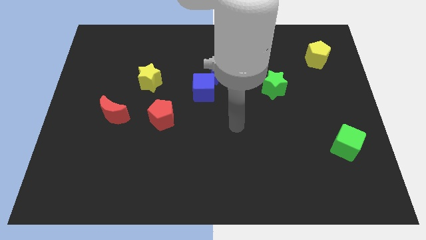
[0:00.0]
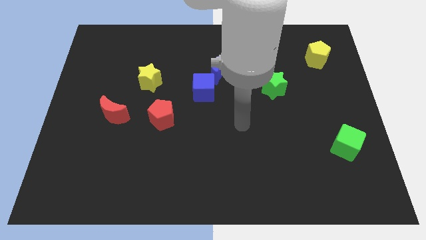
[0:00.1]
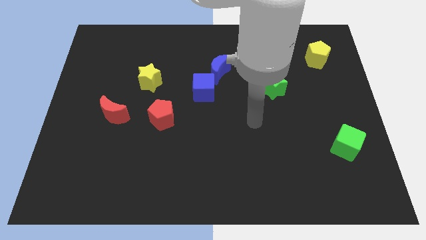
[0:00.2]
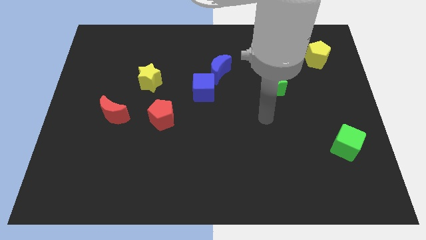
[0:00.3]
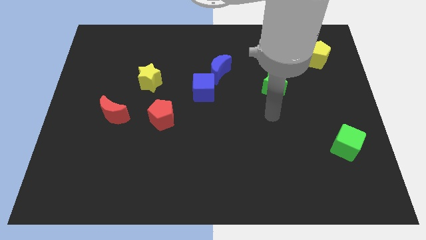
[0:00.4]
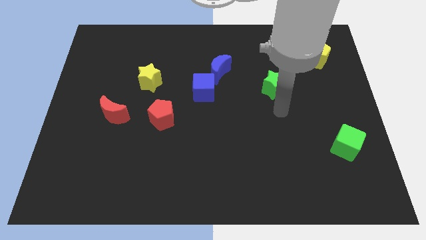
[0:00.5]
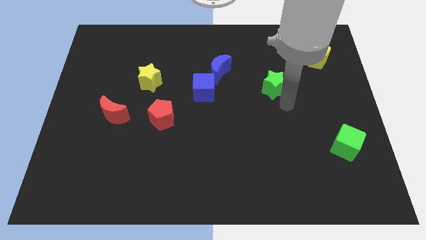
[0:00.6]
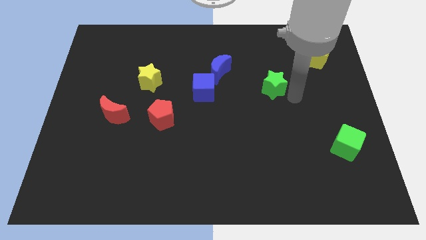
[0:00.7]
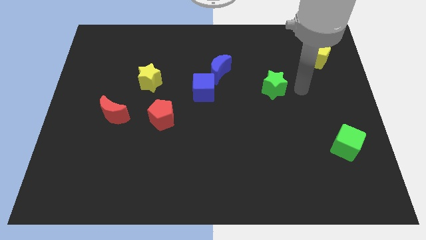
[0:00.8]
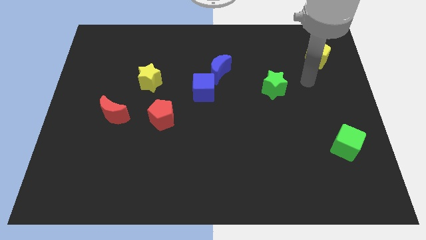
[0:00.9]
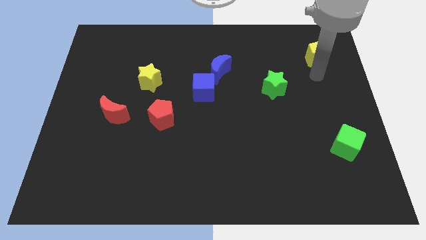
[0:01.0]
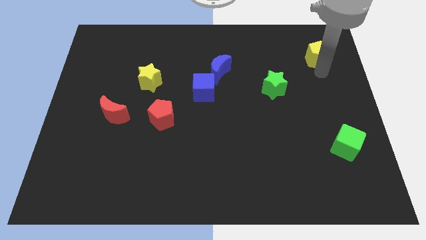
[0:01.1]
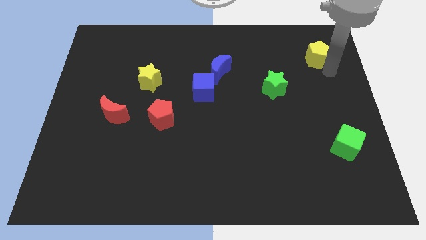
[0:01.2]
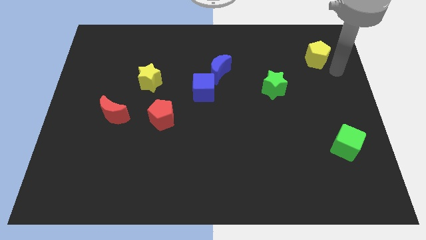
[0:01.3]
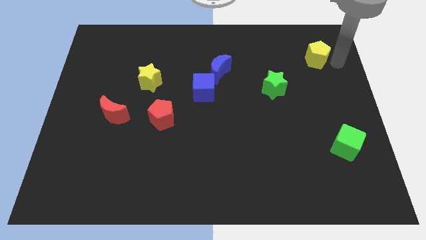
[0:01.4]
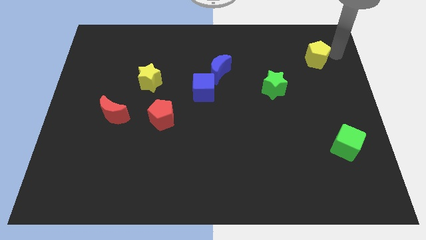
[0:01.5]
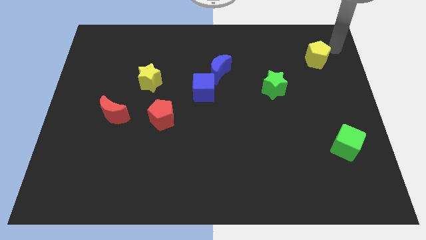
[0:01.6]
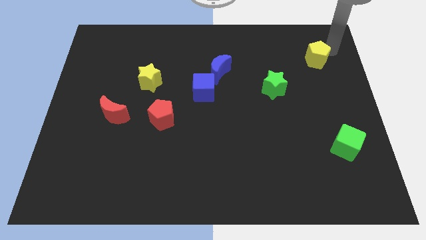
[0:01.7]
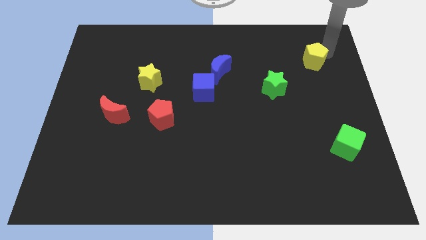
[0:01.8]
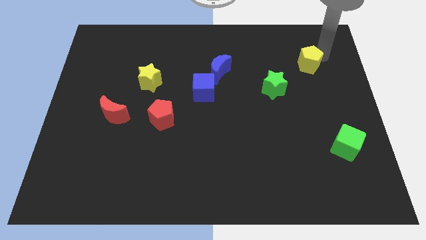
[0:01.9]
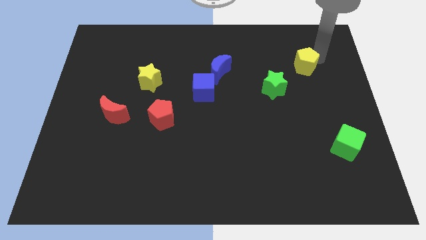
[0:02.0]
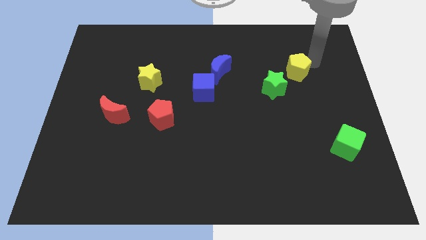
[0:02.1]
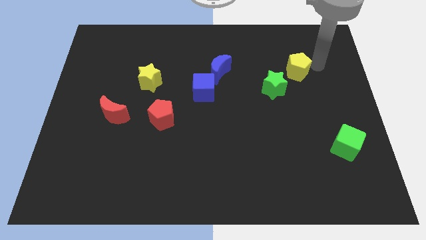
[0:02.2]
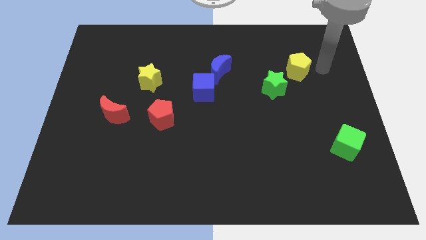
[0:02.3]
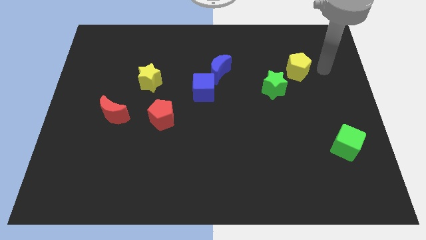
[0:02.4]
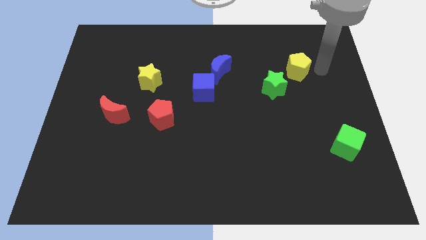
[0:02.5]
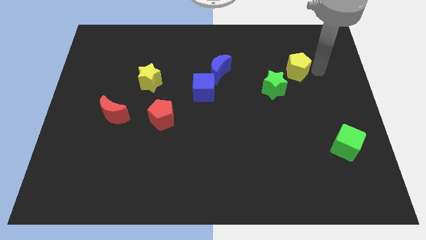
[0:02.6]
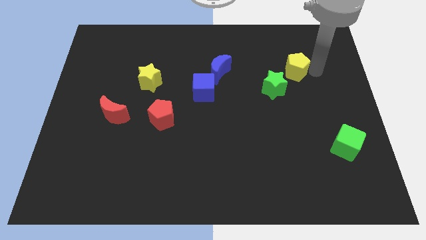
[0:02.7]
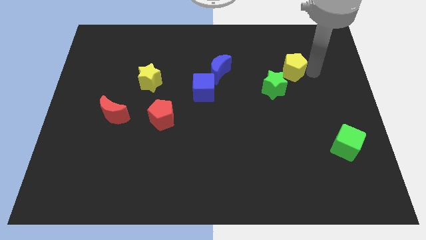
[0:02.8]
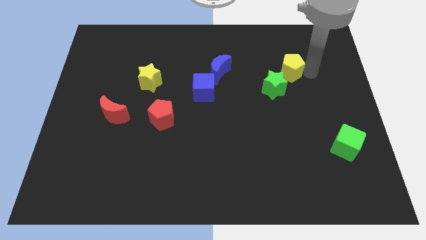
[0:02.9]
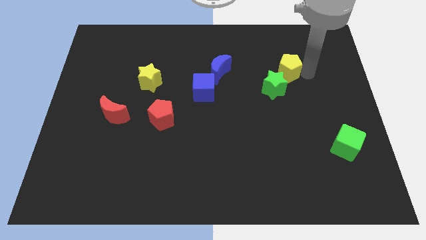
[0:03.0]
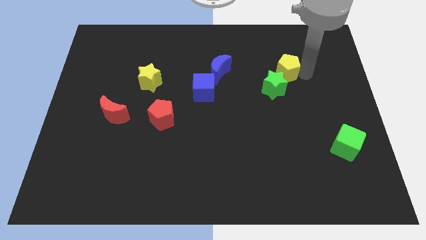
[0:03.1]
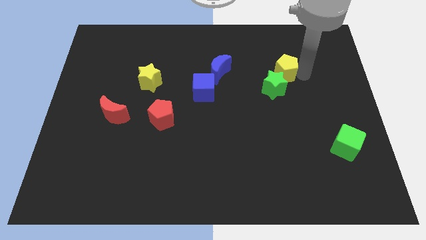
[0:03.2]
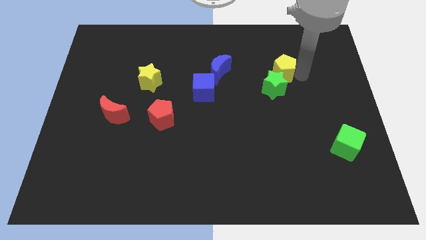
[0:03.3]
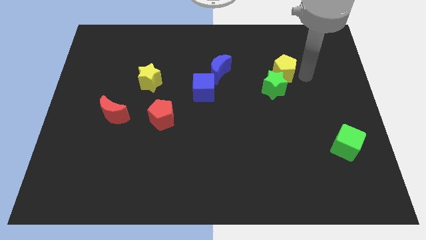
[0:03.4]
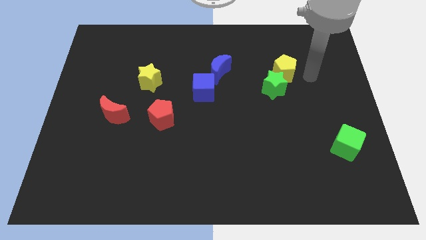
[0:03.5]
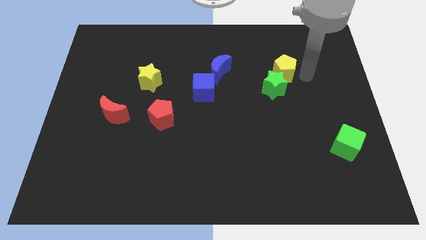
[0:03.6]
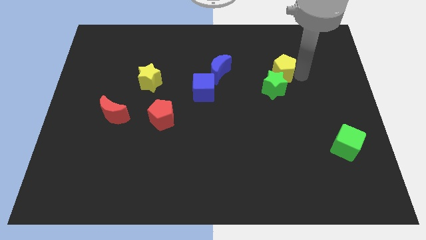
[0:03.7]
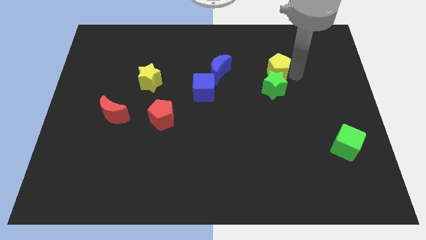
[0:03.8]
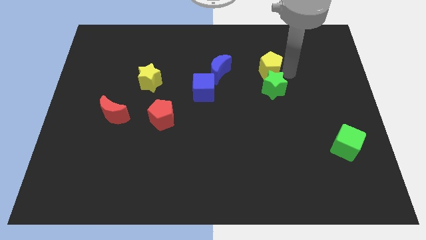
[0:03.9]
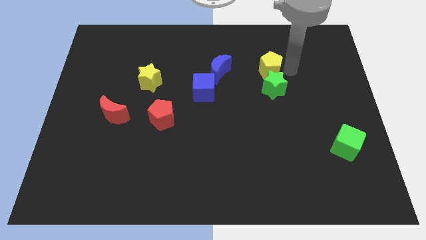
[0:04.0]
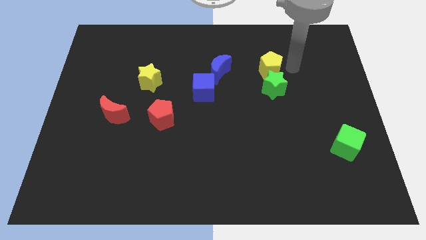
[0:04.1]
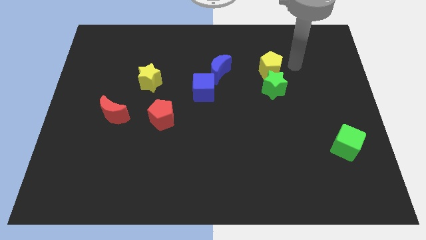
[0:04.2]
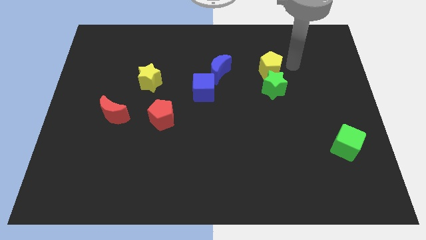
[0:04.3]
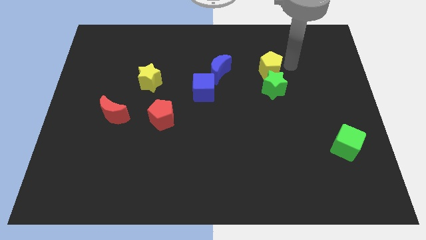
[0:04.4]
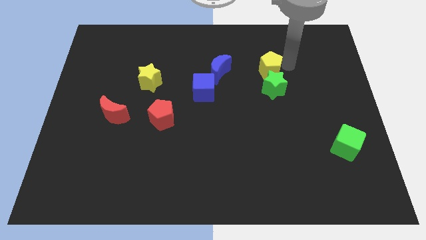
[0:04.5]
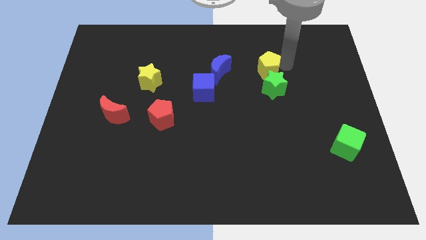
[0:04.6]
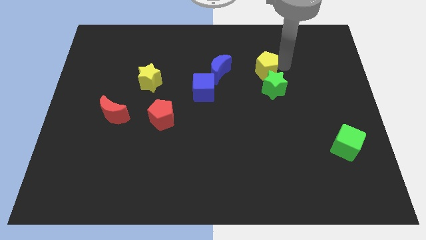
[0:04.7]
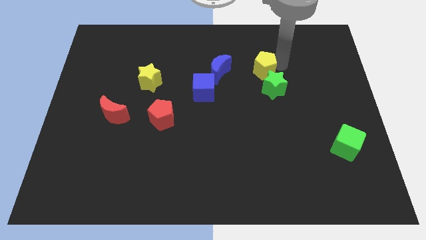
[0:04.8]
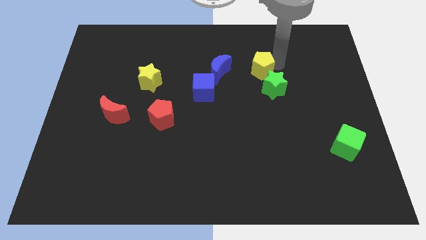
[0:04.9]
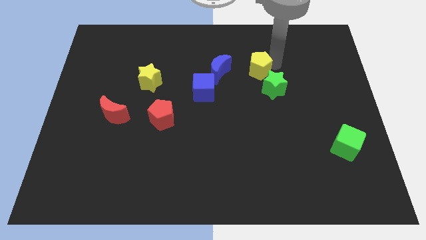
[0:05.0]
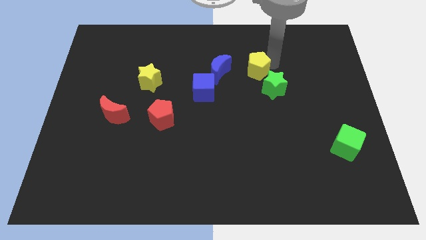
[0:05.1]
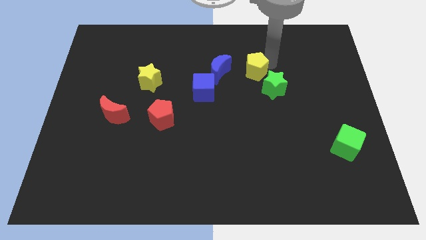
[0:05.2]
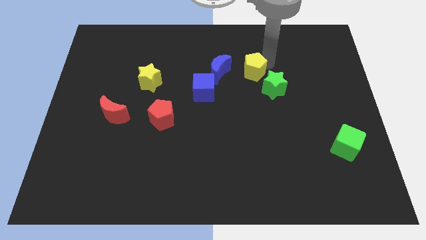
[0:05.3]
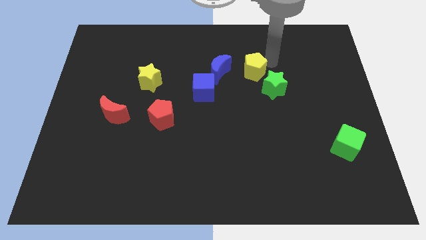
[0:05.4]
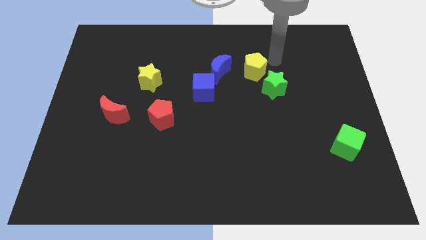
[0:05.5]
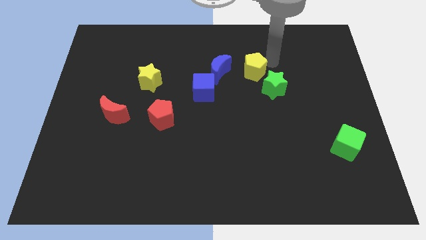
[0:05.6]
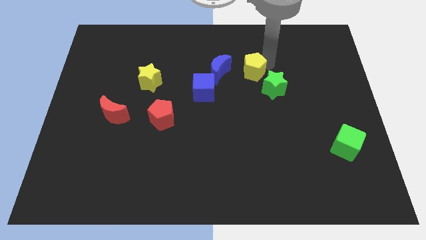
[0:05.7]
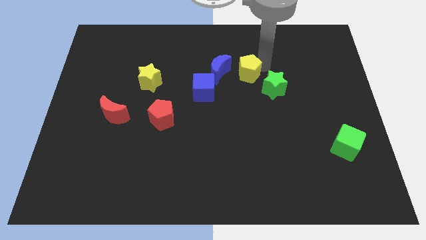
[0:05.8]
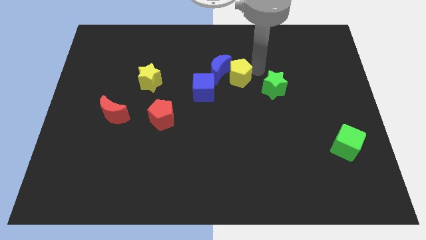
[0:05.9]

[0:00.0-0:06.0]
put the yellow pentagon close to the blue moon

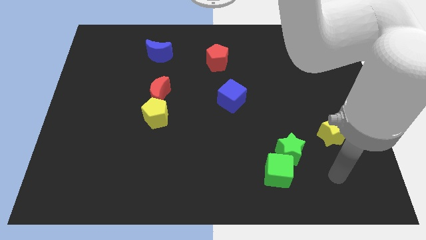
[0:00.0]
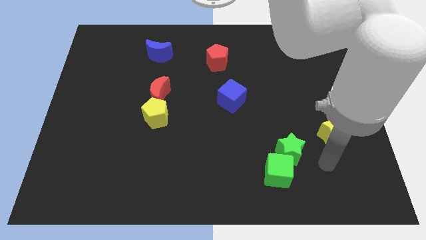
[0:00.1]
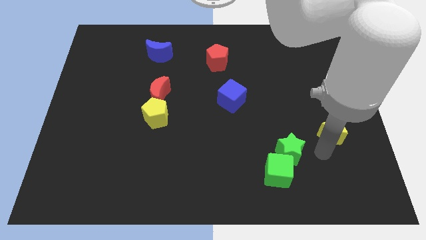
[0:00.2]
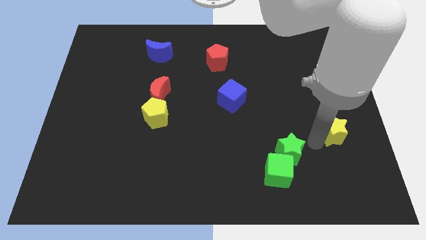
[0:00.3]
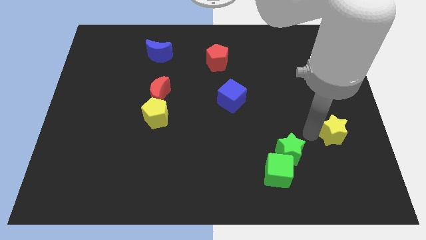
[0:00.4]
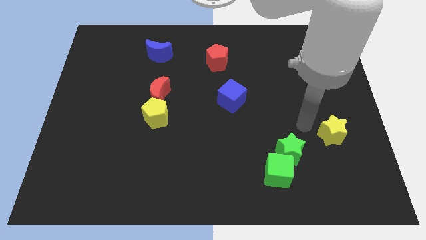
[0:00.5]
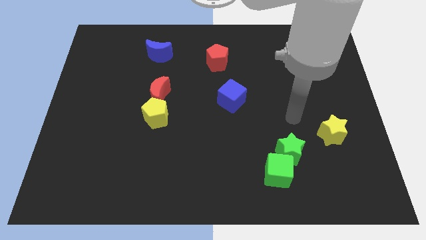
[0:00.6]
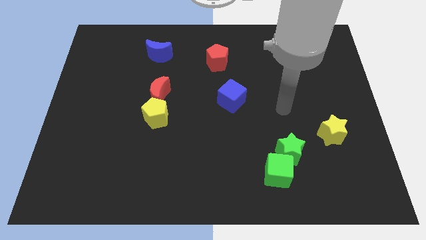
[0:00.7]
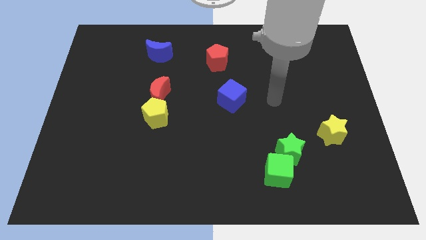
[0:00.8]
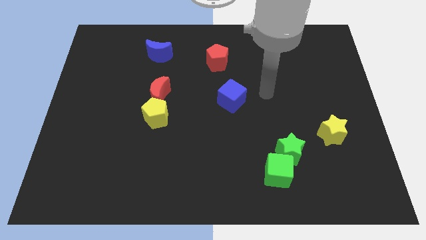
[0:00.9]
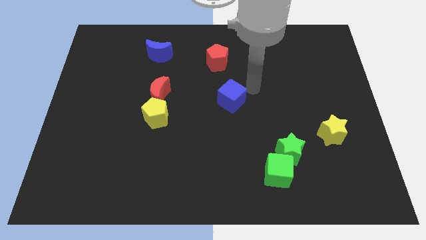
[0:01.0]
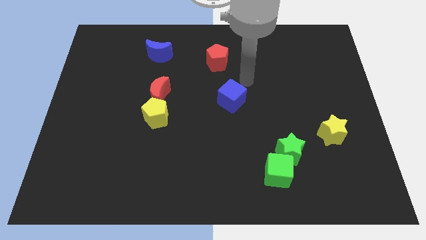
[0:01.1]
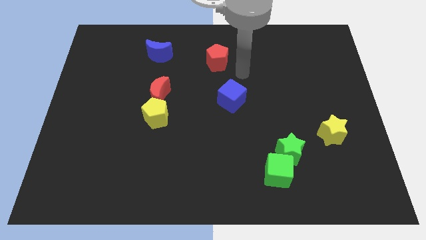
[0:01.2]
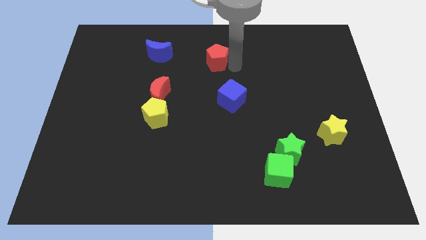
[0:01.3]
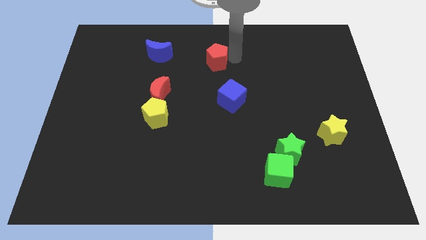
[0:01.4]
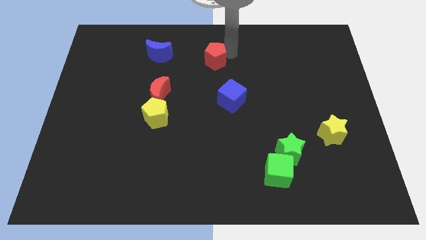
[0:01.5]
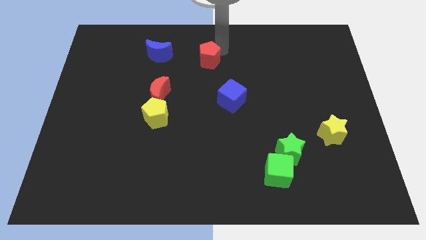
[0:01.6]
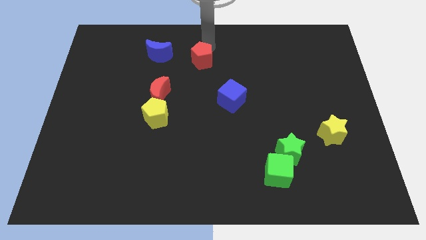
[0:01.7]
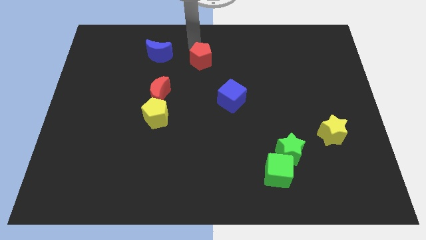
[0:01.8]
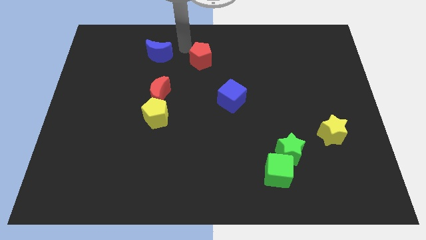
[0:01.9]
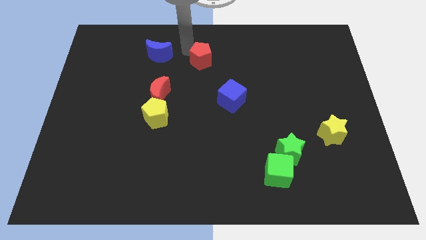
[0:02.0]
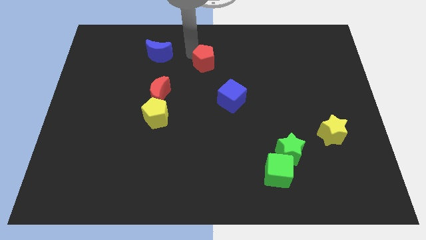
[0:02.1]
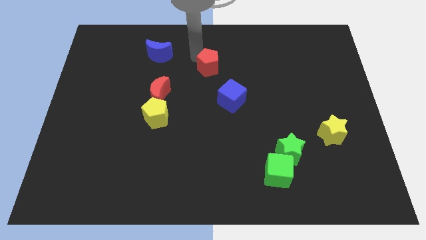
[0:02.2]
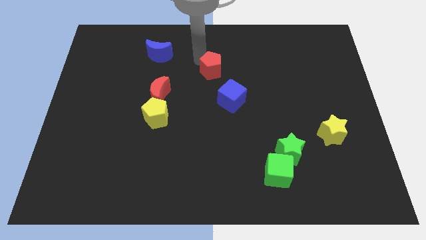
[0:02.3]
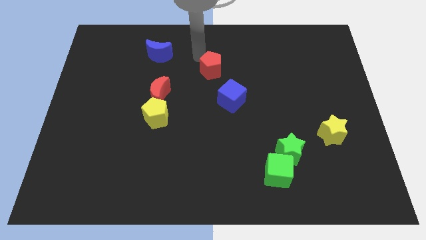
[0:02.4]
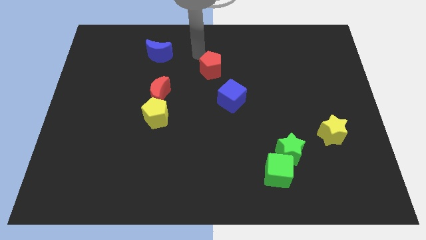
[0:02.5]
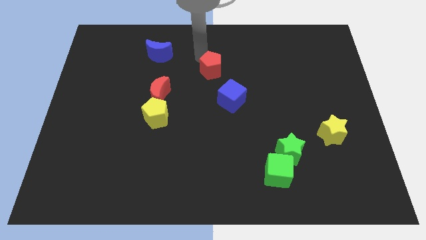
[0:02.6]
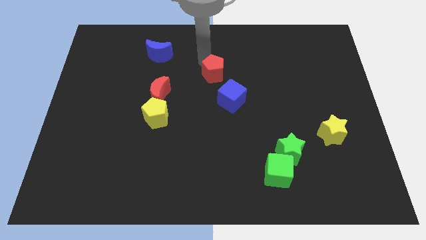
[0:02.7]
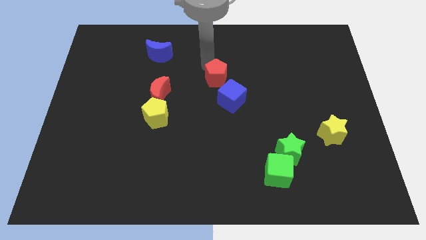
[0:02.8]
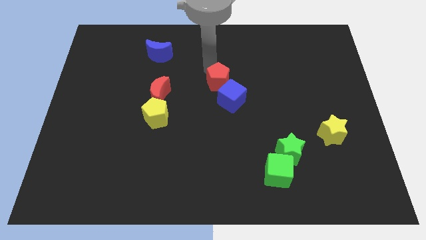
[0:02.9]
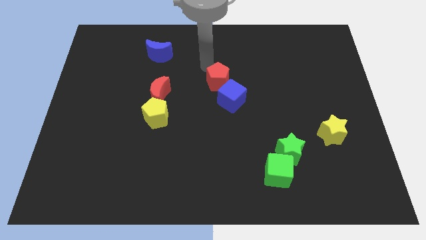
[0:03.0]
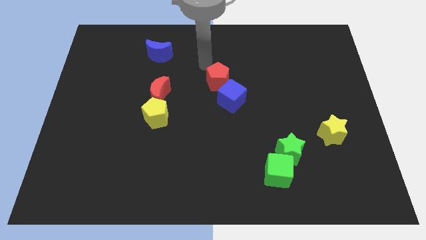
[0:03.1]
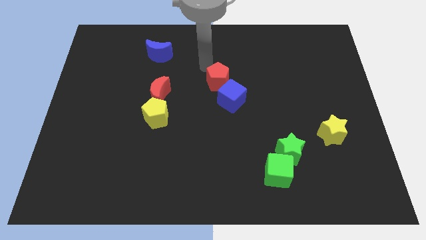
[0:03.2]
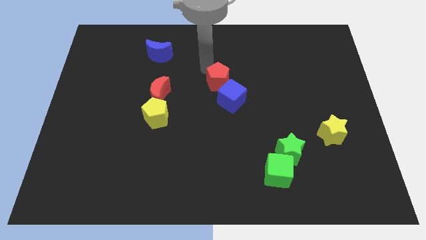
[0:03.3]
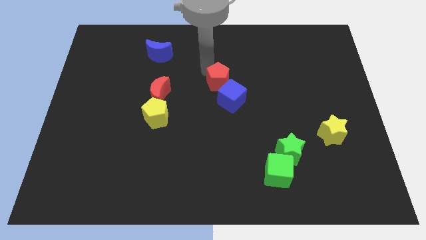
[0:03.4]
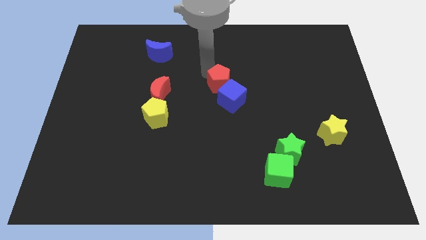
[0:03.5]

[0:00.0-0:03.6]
push the red pentagon next to the blue cube
